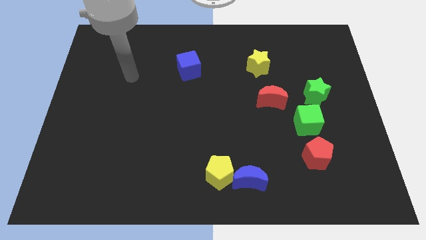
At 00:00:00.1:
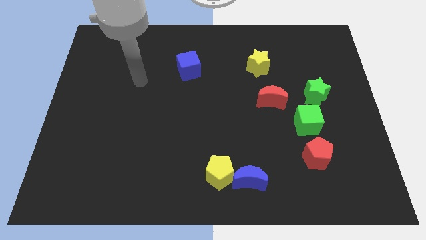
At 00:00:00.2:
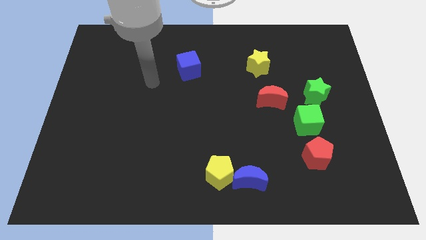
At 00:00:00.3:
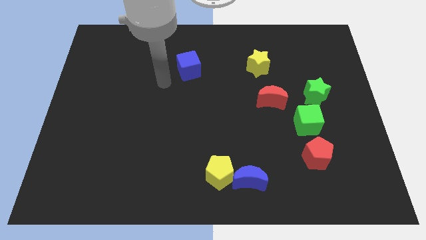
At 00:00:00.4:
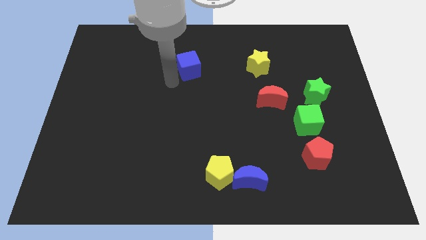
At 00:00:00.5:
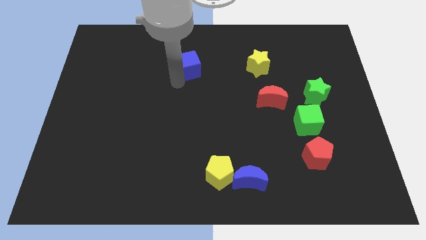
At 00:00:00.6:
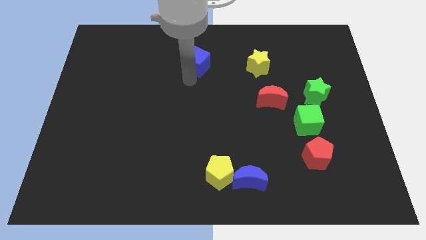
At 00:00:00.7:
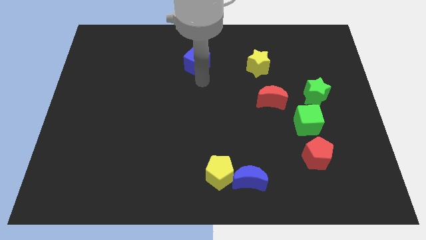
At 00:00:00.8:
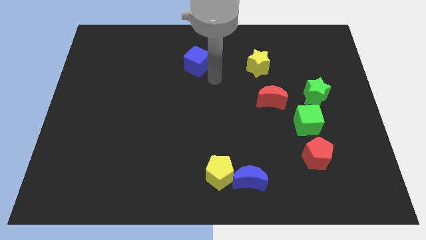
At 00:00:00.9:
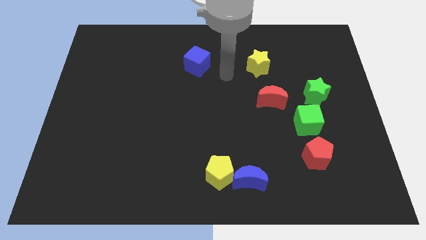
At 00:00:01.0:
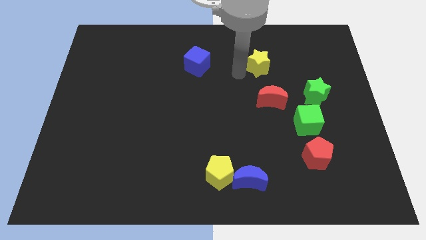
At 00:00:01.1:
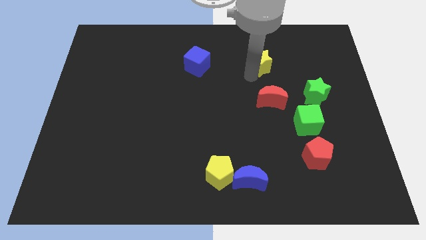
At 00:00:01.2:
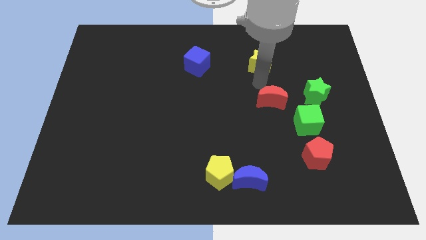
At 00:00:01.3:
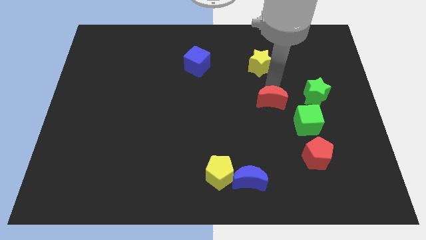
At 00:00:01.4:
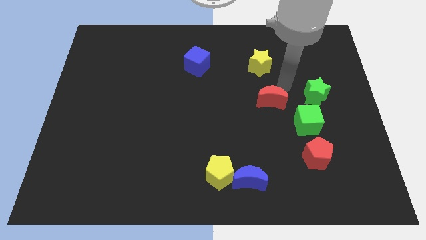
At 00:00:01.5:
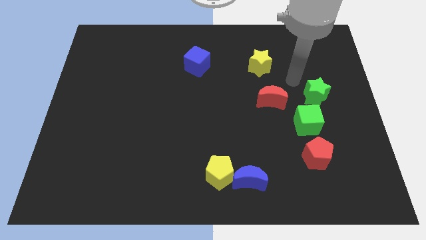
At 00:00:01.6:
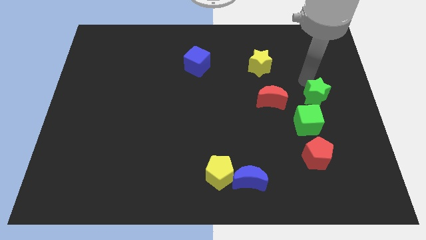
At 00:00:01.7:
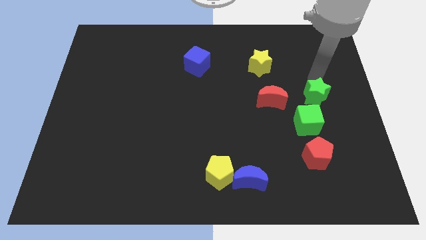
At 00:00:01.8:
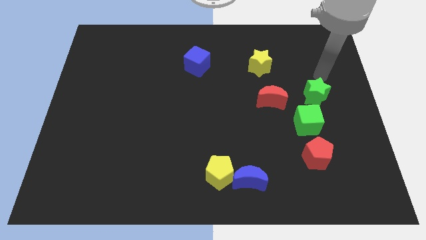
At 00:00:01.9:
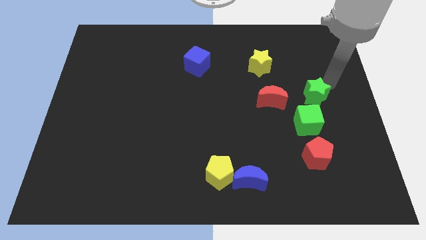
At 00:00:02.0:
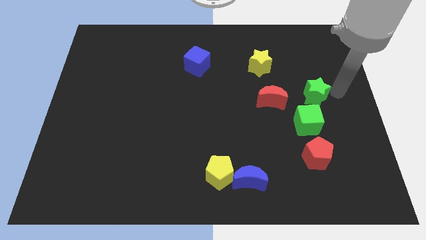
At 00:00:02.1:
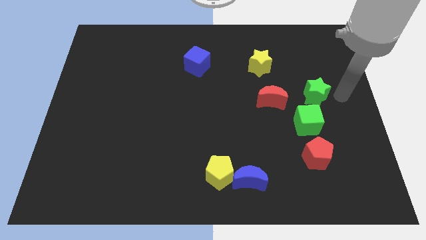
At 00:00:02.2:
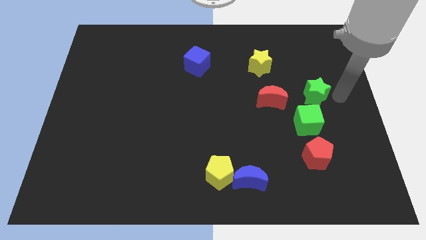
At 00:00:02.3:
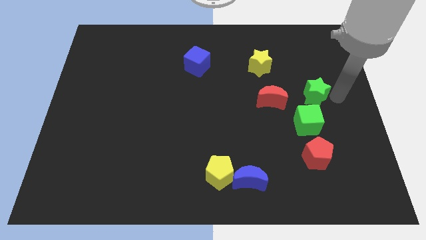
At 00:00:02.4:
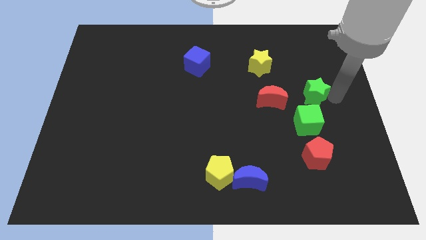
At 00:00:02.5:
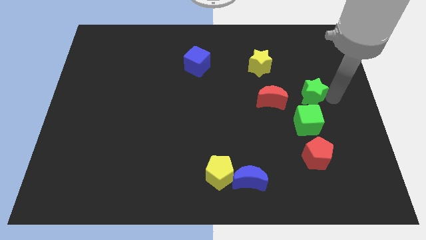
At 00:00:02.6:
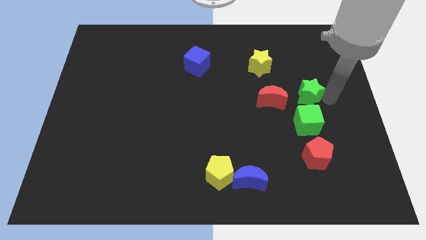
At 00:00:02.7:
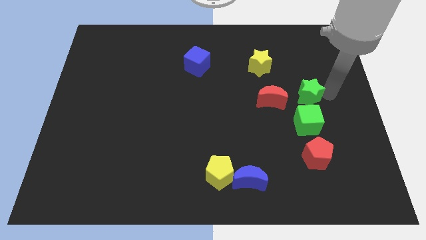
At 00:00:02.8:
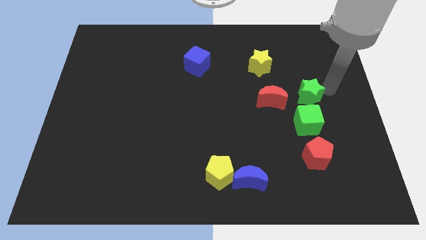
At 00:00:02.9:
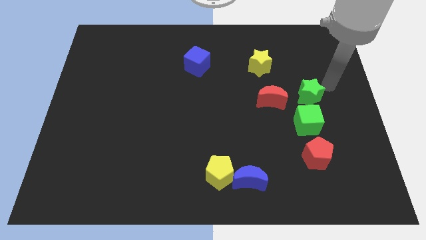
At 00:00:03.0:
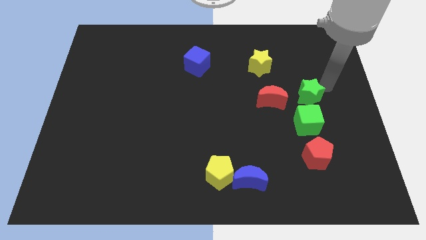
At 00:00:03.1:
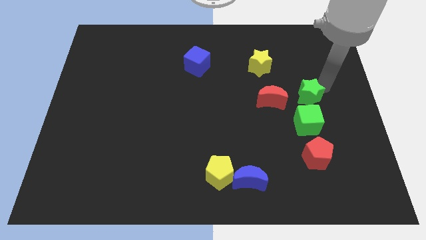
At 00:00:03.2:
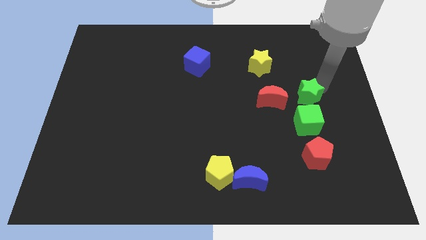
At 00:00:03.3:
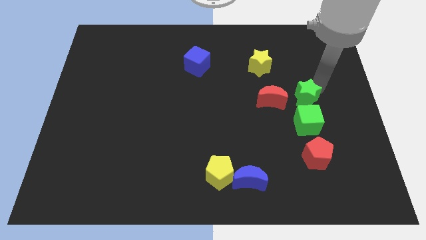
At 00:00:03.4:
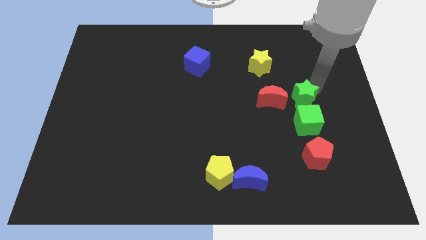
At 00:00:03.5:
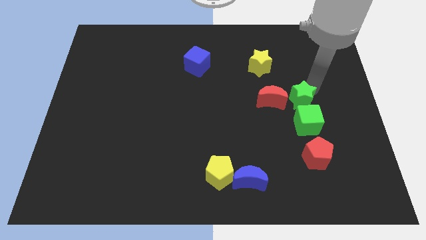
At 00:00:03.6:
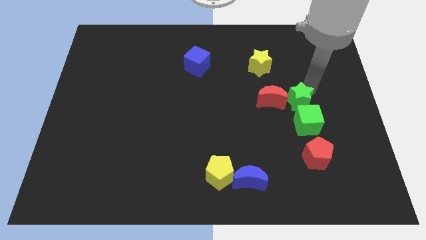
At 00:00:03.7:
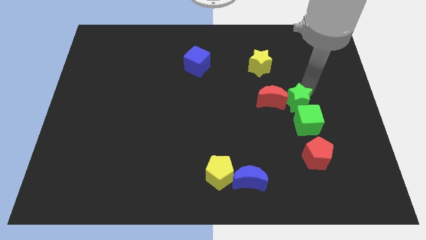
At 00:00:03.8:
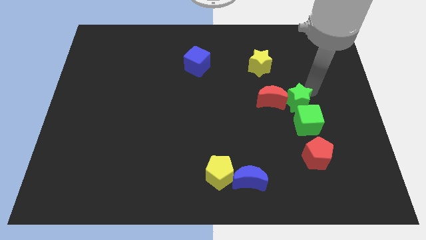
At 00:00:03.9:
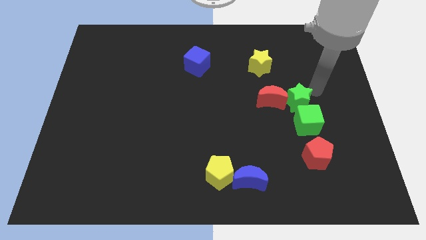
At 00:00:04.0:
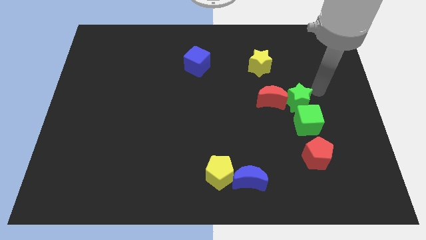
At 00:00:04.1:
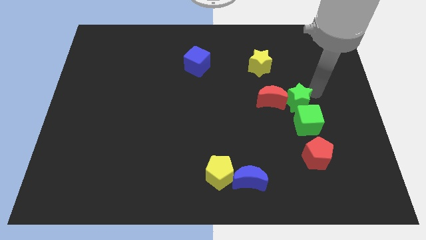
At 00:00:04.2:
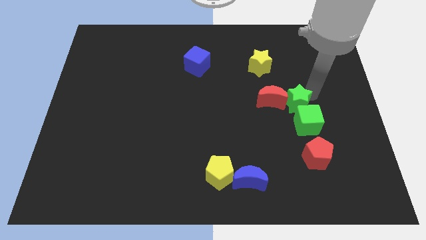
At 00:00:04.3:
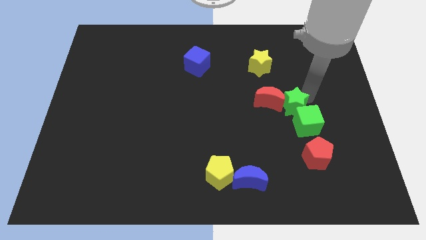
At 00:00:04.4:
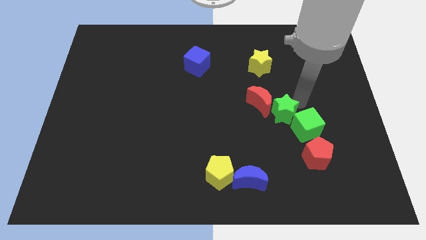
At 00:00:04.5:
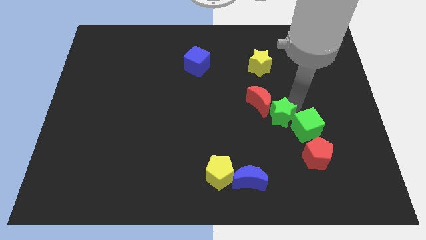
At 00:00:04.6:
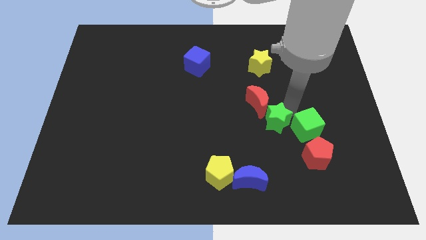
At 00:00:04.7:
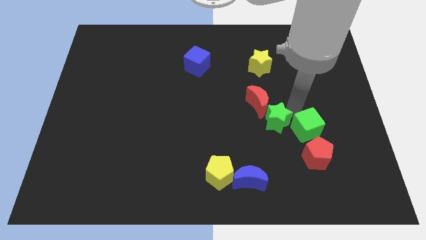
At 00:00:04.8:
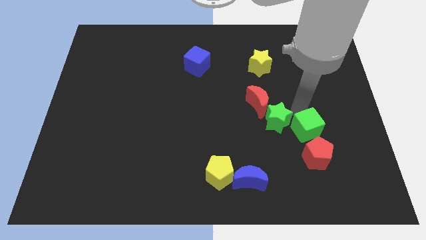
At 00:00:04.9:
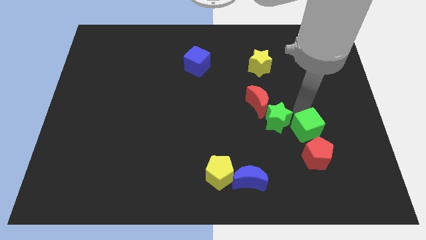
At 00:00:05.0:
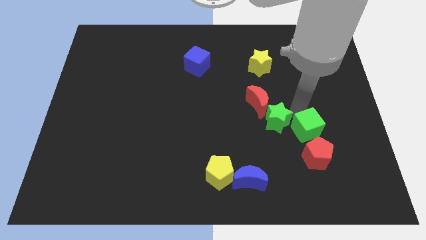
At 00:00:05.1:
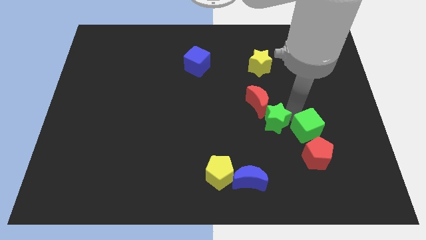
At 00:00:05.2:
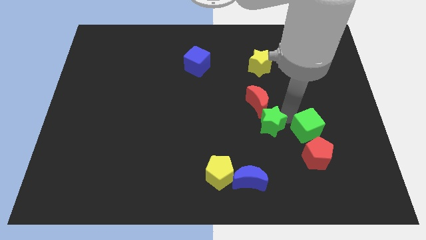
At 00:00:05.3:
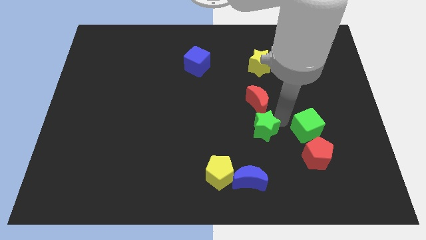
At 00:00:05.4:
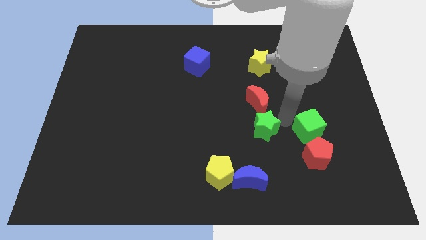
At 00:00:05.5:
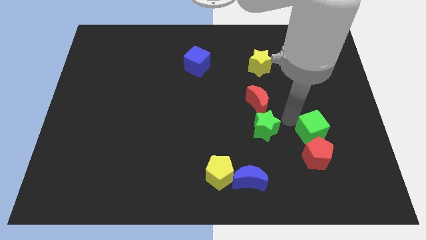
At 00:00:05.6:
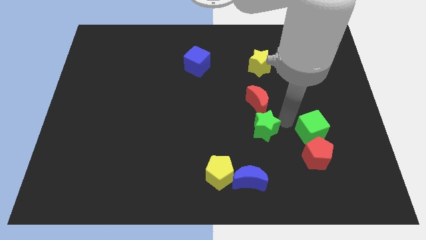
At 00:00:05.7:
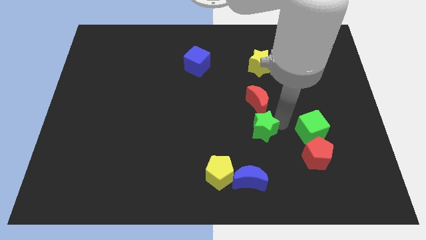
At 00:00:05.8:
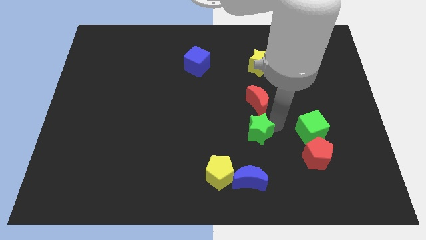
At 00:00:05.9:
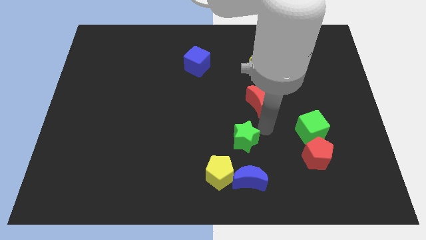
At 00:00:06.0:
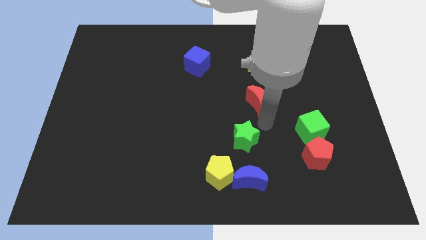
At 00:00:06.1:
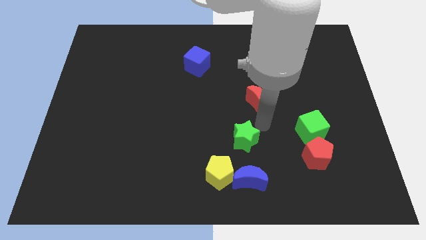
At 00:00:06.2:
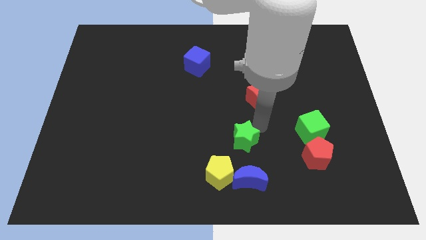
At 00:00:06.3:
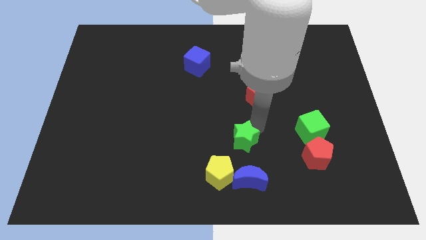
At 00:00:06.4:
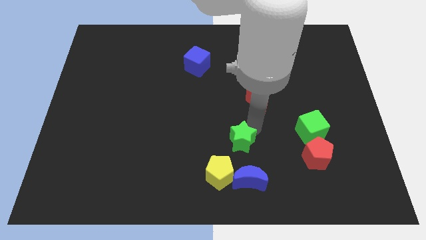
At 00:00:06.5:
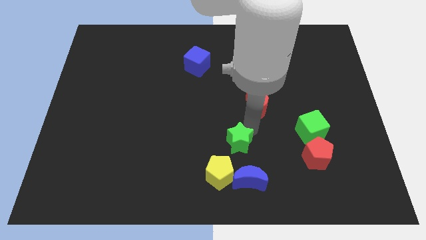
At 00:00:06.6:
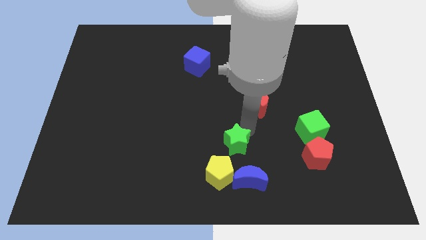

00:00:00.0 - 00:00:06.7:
put the green star diagonally up and to the left of the blue moon

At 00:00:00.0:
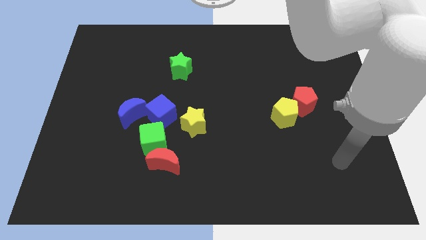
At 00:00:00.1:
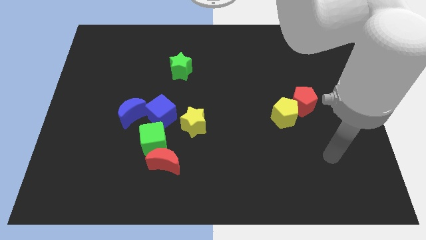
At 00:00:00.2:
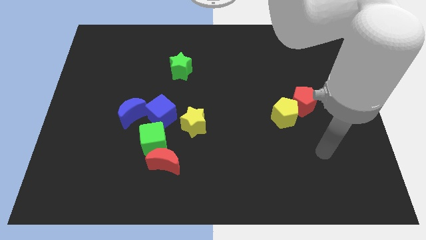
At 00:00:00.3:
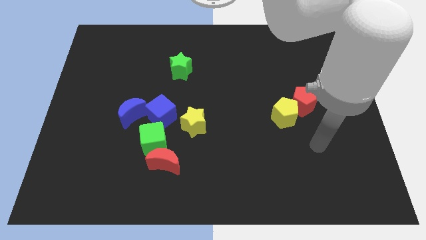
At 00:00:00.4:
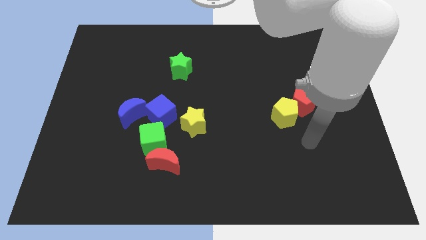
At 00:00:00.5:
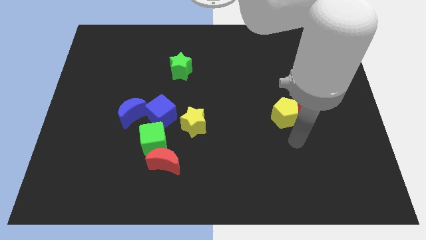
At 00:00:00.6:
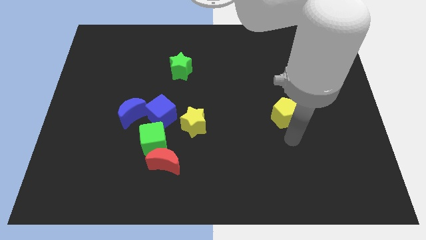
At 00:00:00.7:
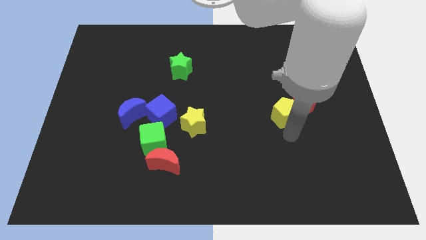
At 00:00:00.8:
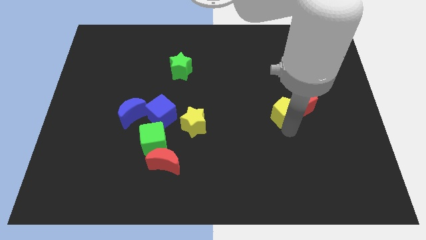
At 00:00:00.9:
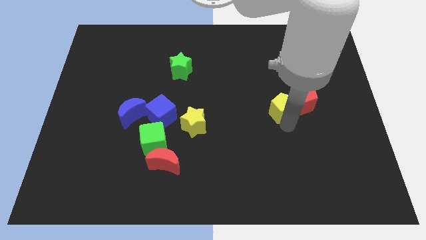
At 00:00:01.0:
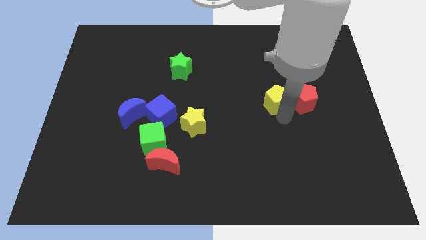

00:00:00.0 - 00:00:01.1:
move the yellow pentagon to the top left side of the red pentagon
